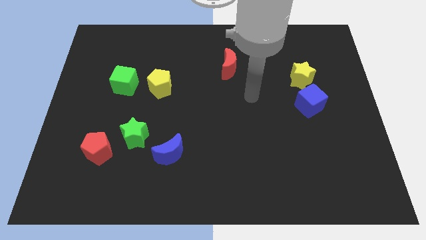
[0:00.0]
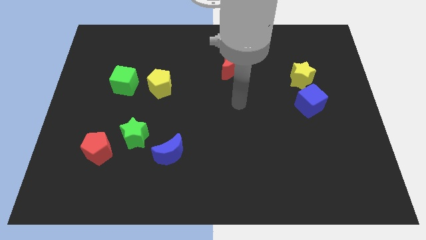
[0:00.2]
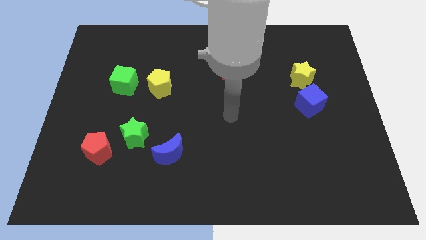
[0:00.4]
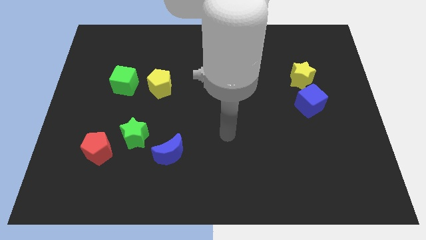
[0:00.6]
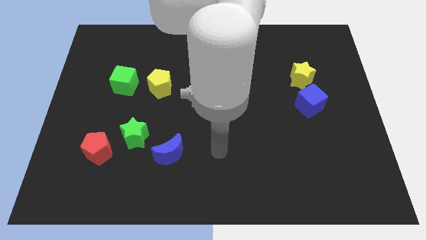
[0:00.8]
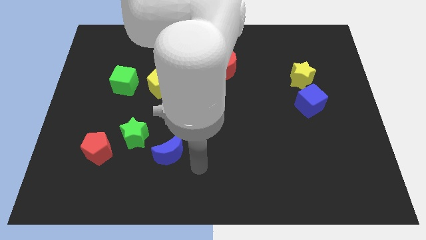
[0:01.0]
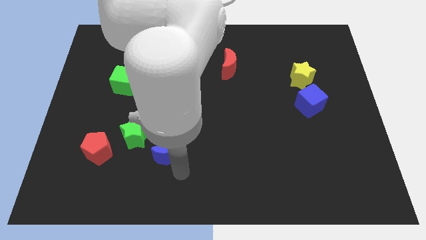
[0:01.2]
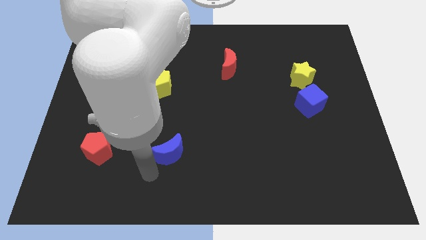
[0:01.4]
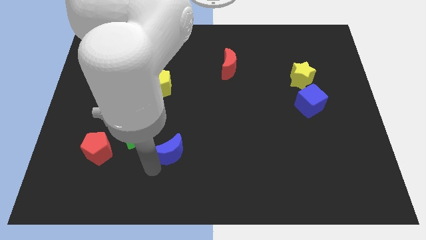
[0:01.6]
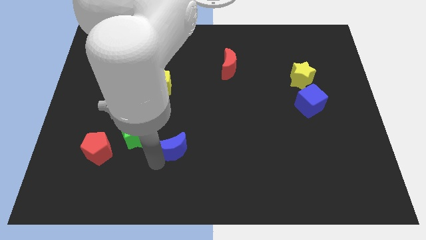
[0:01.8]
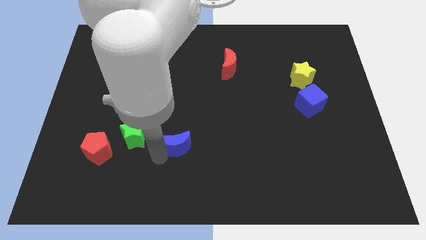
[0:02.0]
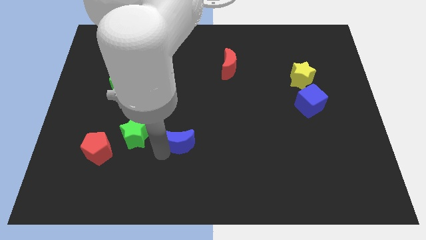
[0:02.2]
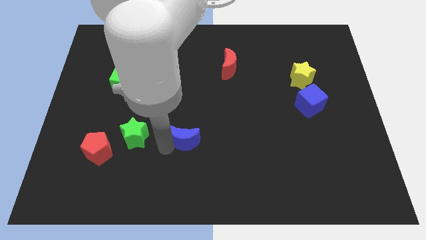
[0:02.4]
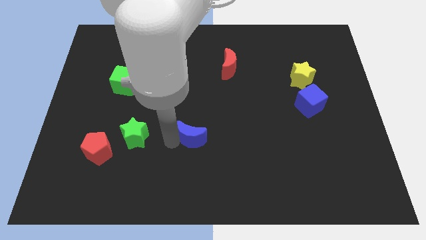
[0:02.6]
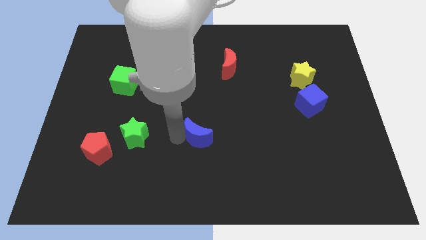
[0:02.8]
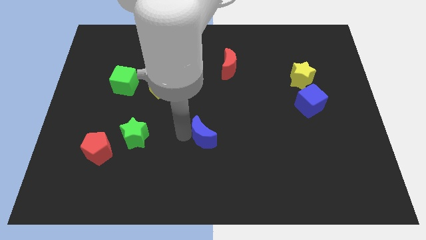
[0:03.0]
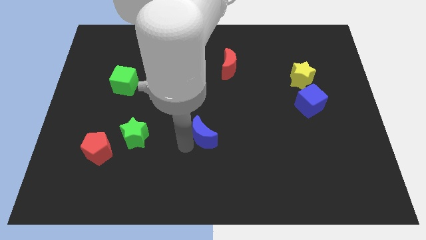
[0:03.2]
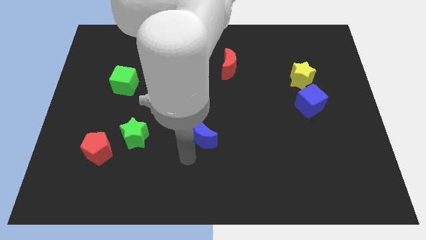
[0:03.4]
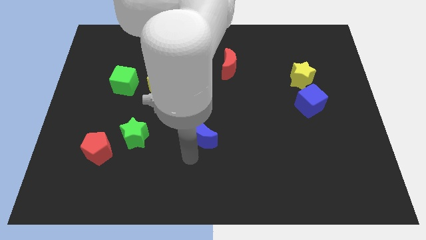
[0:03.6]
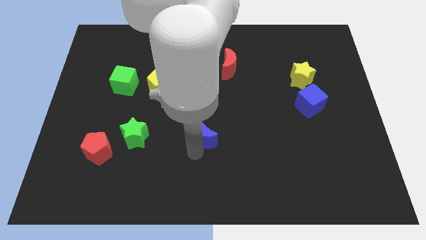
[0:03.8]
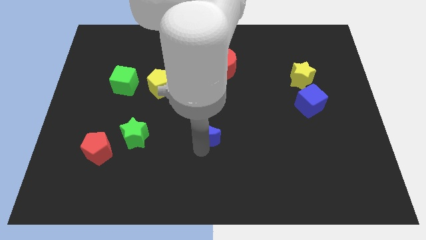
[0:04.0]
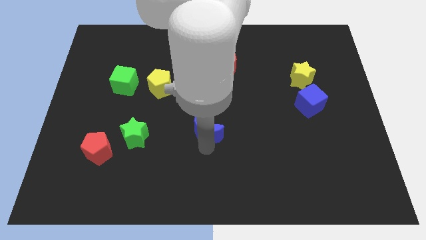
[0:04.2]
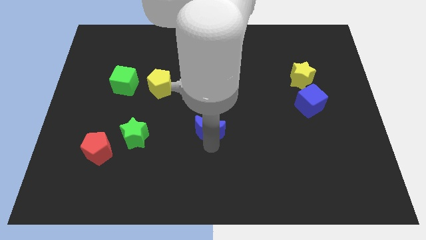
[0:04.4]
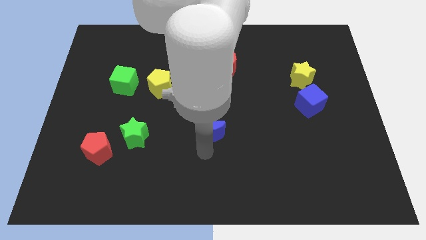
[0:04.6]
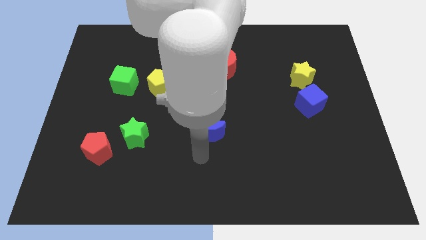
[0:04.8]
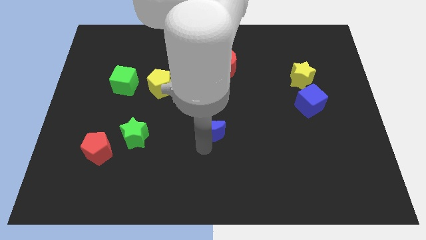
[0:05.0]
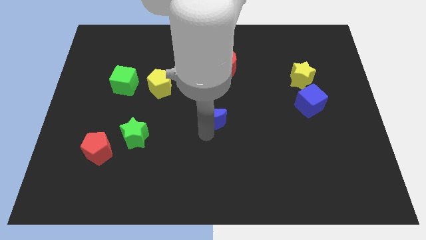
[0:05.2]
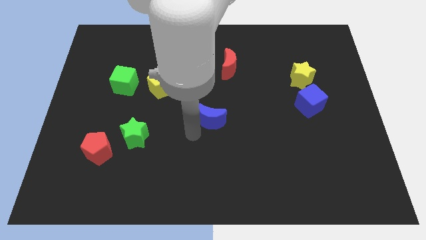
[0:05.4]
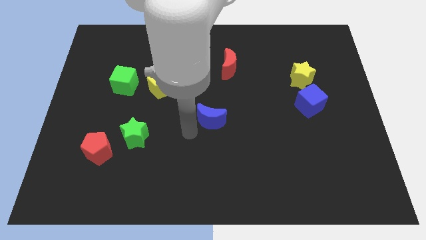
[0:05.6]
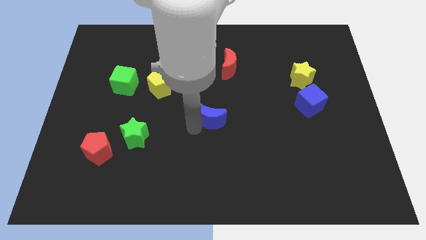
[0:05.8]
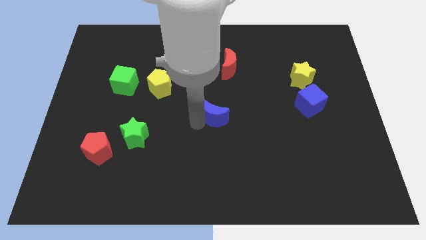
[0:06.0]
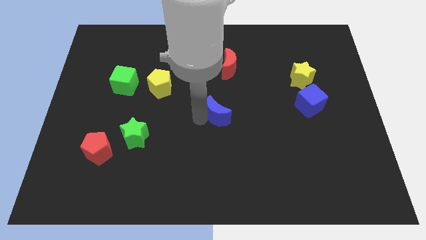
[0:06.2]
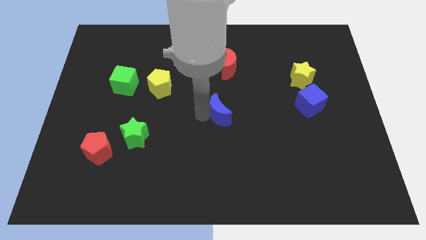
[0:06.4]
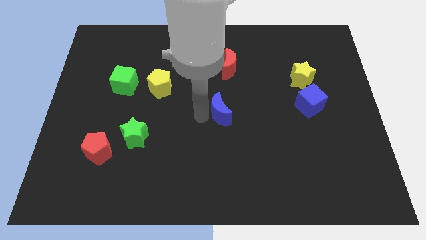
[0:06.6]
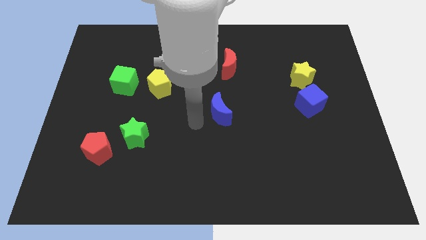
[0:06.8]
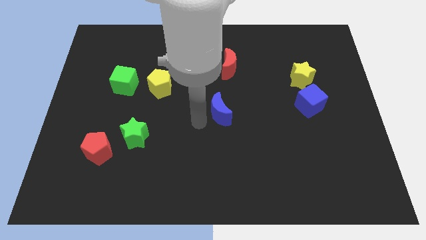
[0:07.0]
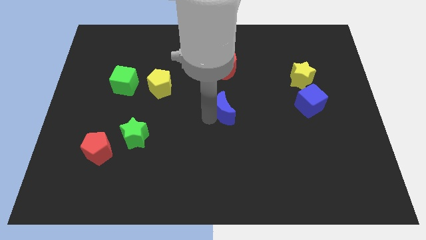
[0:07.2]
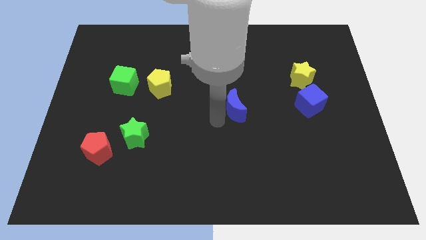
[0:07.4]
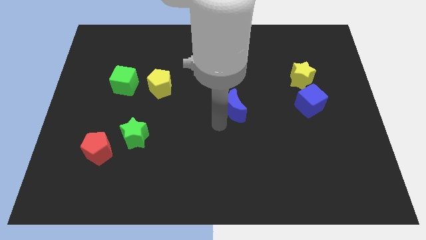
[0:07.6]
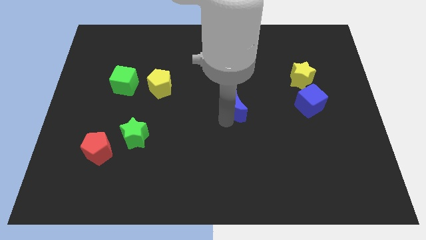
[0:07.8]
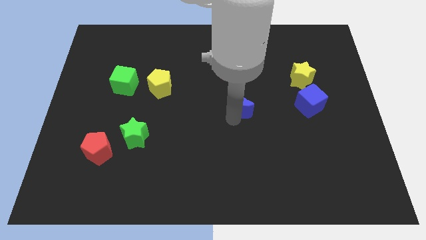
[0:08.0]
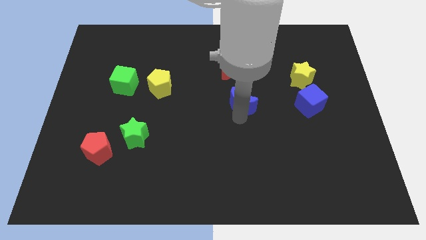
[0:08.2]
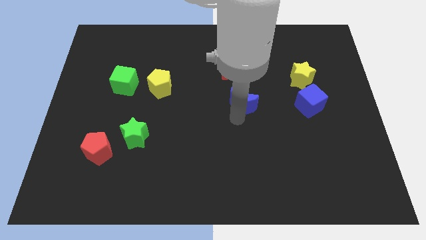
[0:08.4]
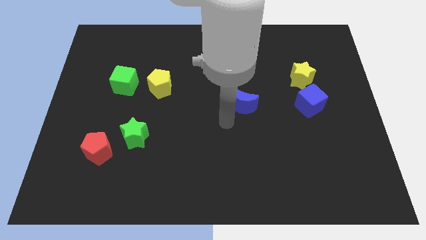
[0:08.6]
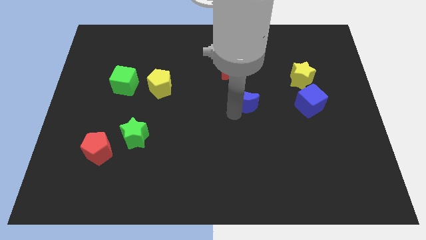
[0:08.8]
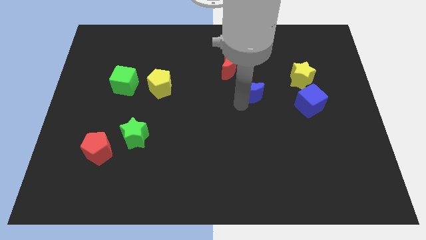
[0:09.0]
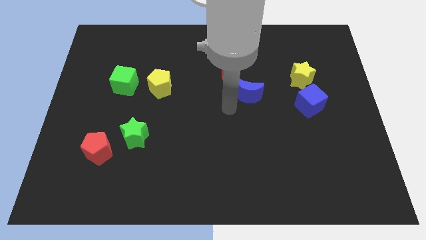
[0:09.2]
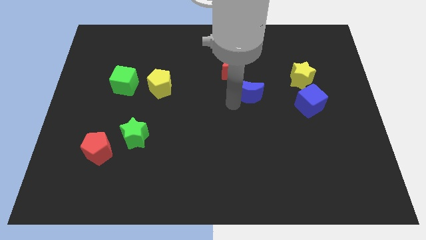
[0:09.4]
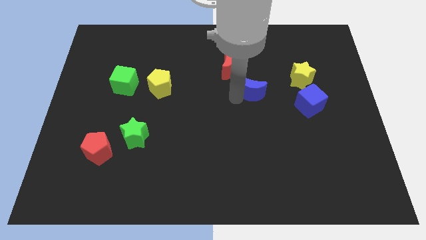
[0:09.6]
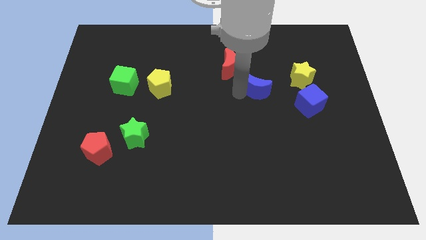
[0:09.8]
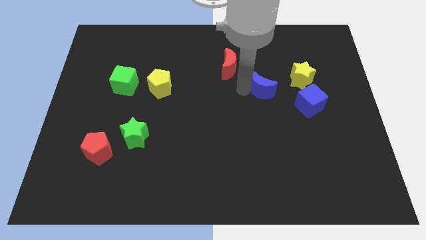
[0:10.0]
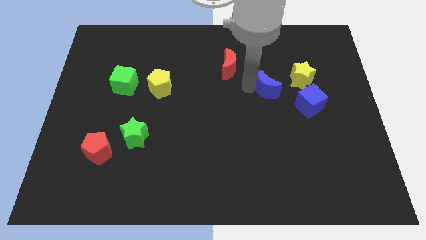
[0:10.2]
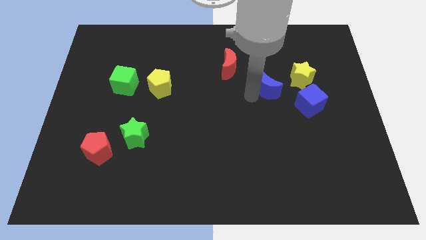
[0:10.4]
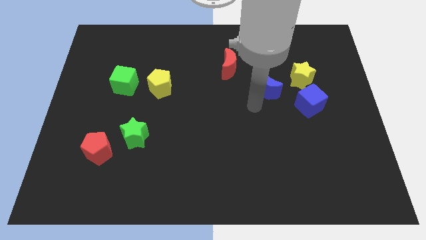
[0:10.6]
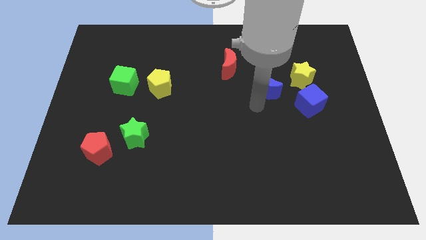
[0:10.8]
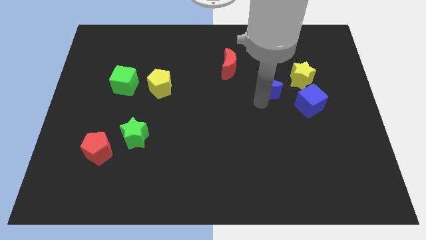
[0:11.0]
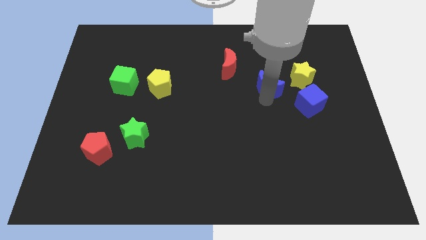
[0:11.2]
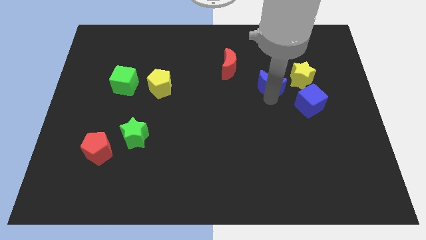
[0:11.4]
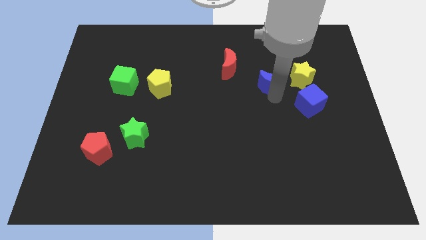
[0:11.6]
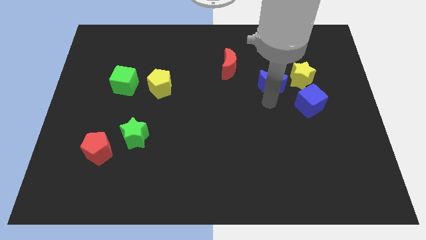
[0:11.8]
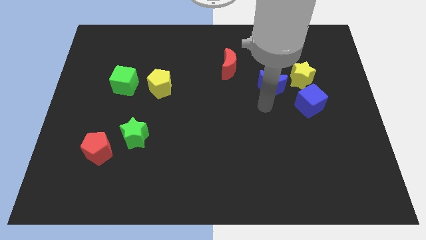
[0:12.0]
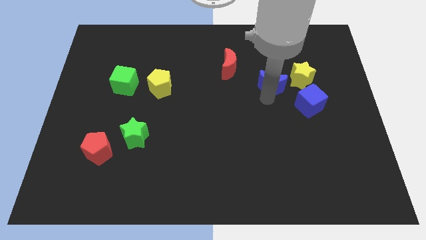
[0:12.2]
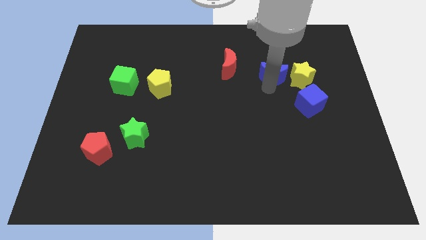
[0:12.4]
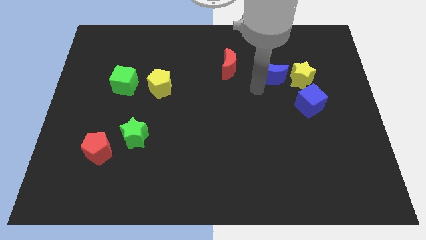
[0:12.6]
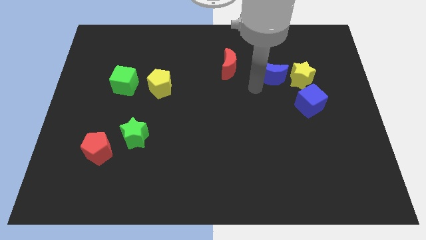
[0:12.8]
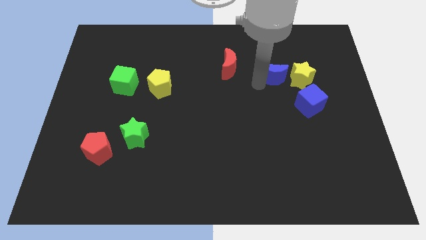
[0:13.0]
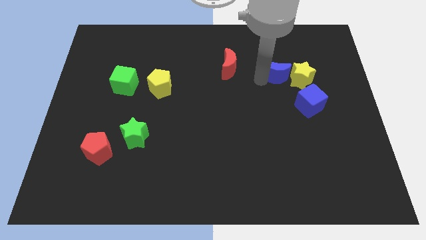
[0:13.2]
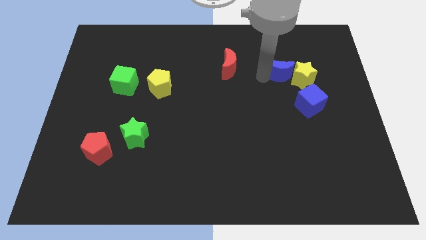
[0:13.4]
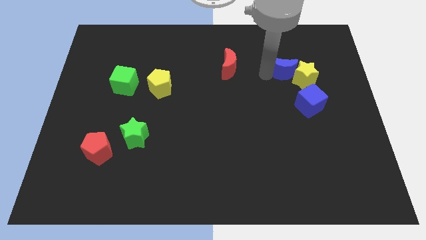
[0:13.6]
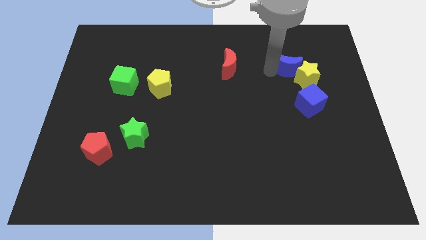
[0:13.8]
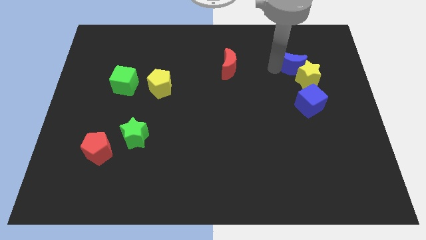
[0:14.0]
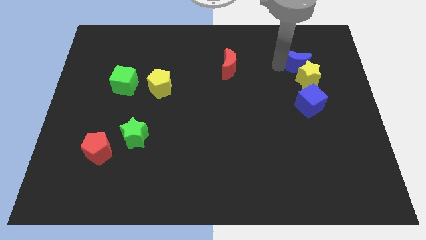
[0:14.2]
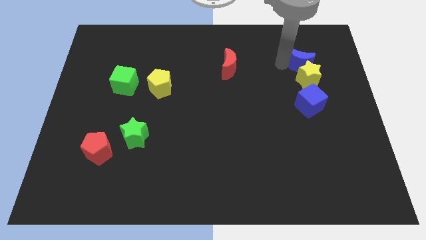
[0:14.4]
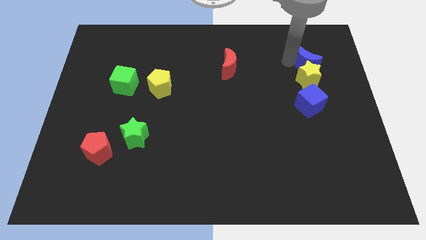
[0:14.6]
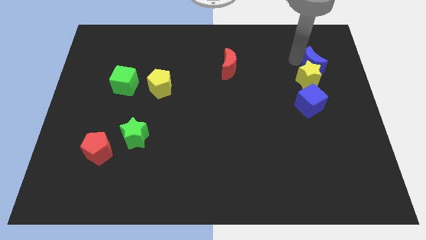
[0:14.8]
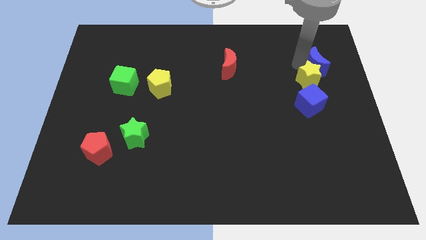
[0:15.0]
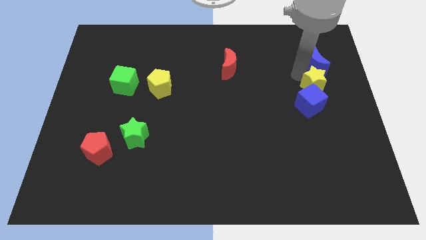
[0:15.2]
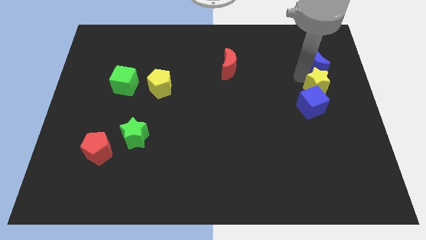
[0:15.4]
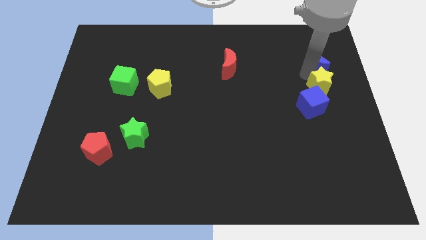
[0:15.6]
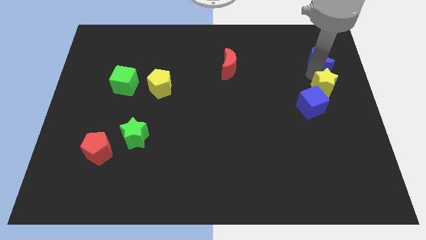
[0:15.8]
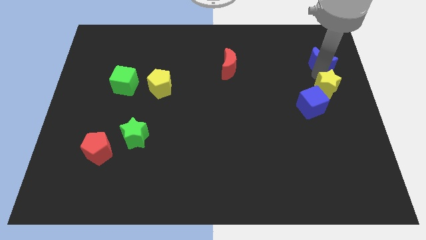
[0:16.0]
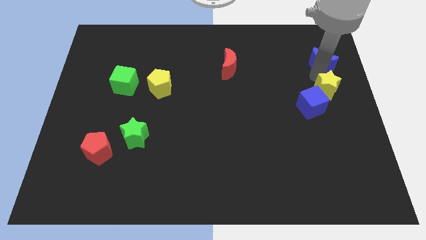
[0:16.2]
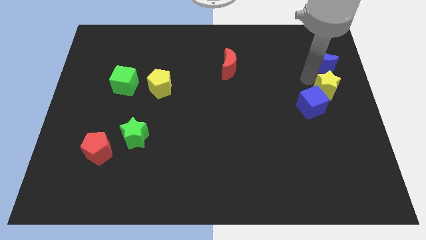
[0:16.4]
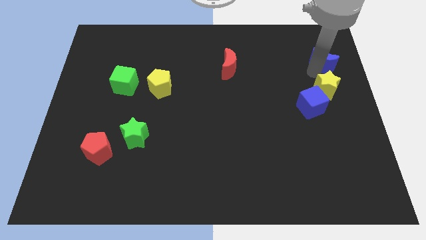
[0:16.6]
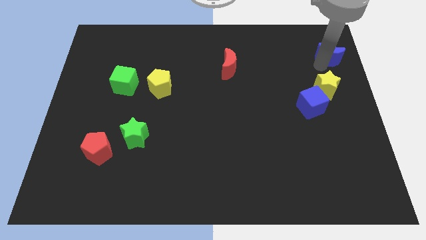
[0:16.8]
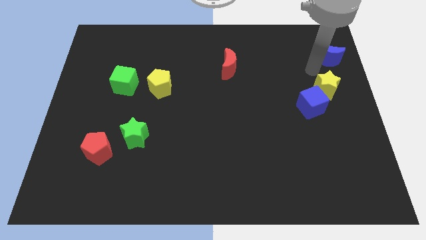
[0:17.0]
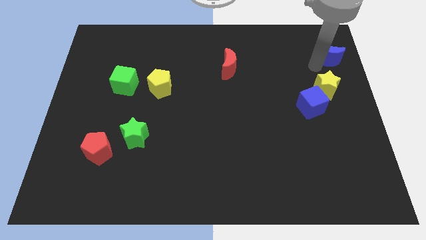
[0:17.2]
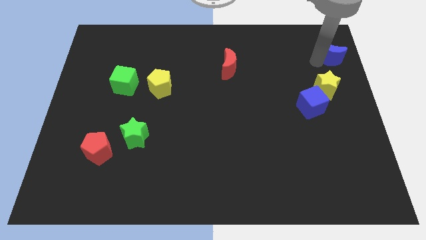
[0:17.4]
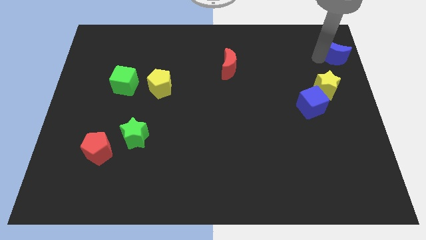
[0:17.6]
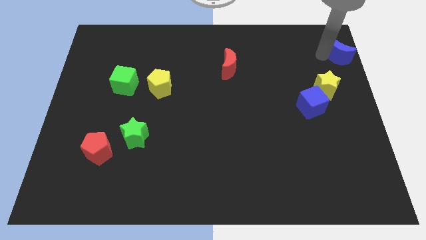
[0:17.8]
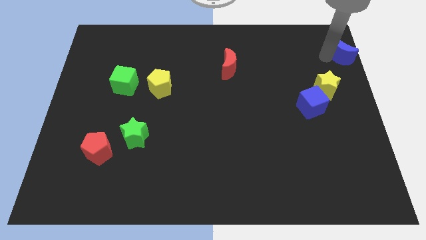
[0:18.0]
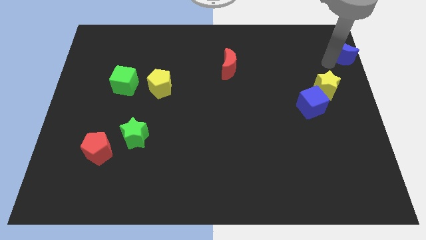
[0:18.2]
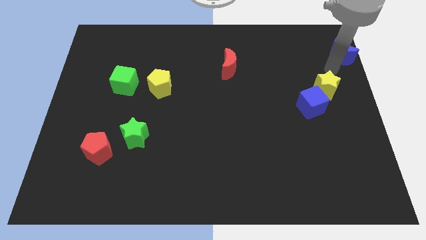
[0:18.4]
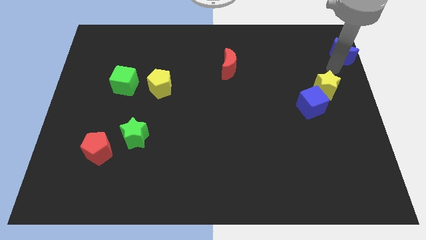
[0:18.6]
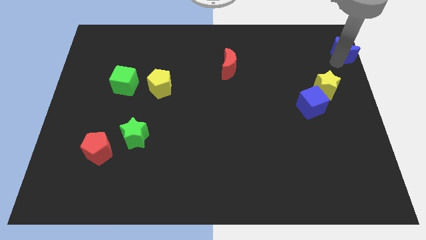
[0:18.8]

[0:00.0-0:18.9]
slide the blue moon to the upper right corner
